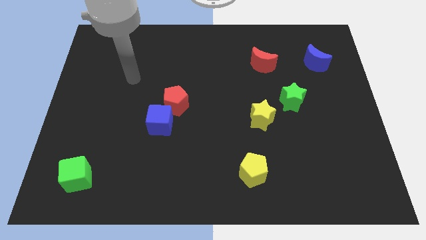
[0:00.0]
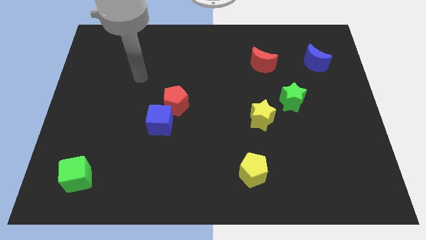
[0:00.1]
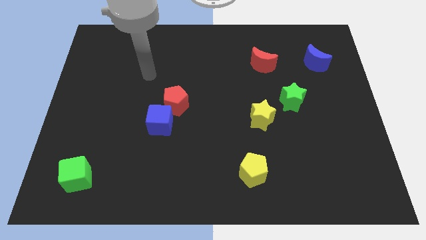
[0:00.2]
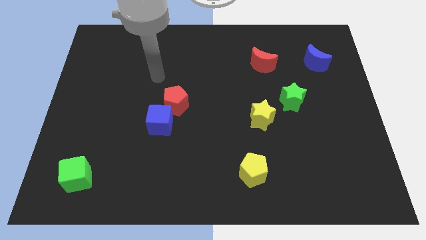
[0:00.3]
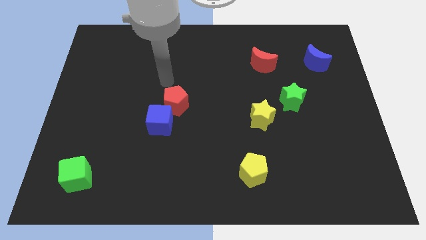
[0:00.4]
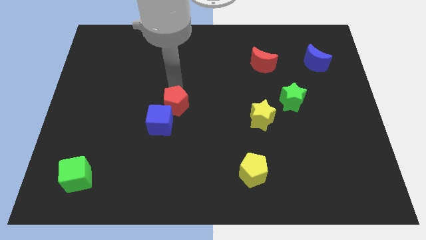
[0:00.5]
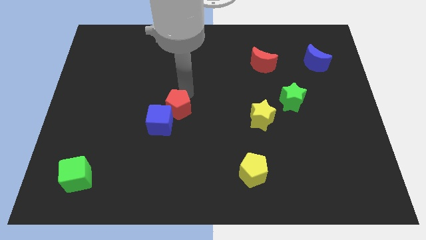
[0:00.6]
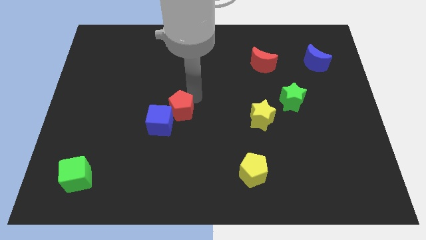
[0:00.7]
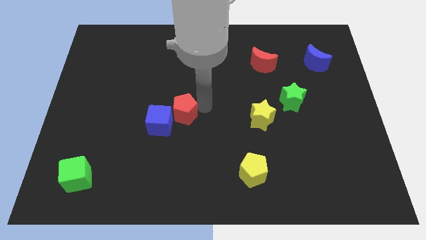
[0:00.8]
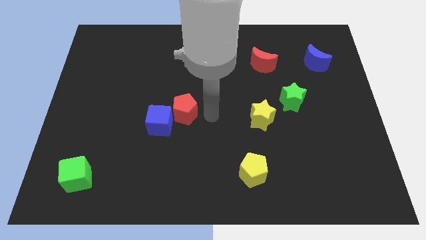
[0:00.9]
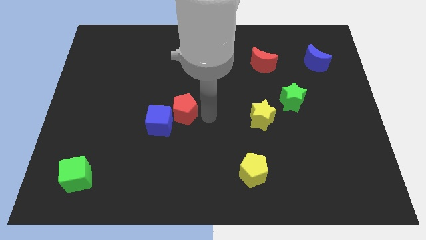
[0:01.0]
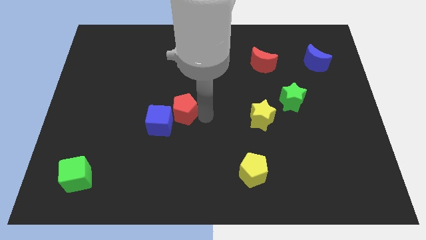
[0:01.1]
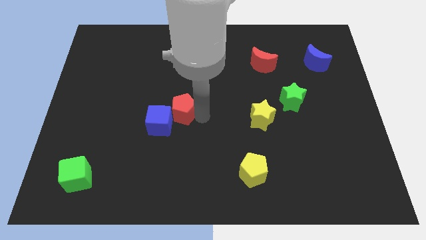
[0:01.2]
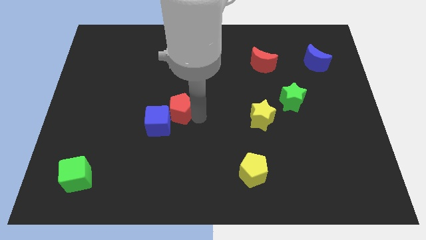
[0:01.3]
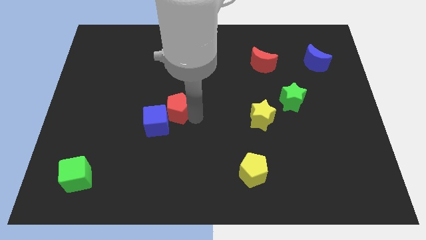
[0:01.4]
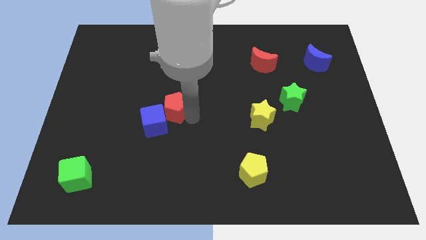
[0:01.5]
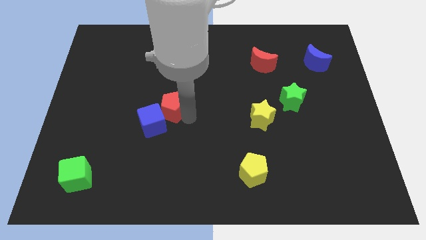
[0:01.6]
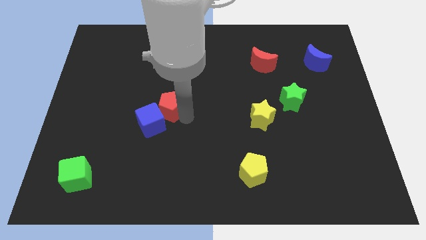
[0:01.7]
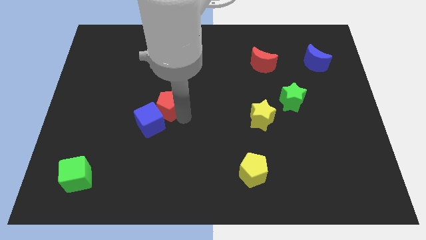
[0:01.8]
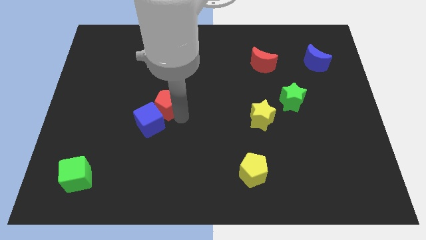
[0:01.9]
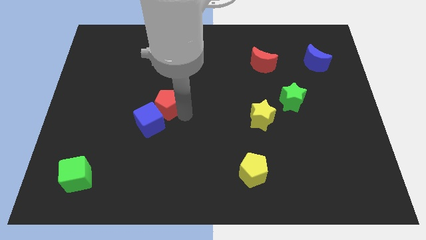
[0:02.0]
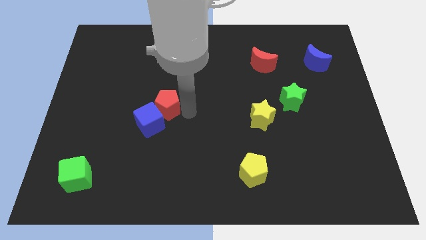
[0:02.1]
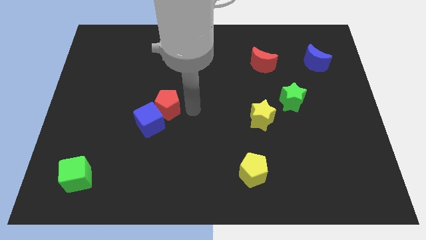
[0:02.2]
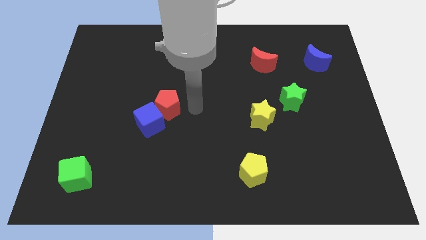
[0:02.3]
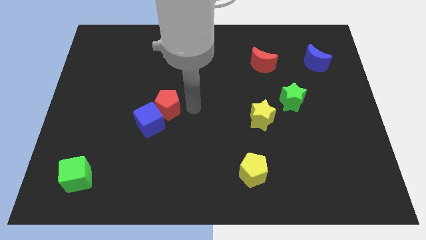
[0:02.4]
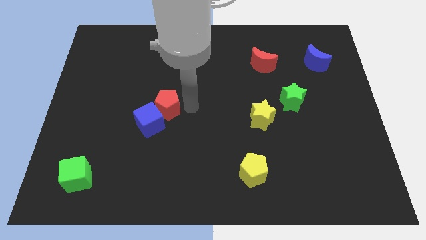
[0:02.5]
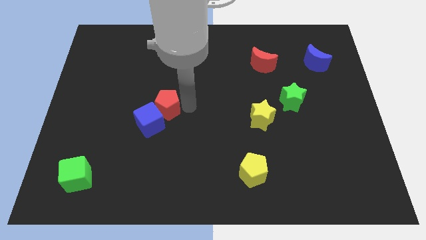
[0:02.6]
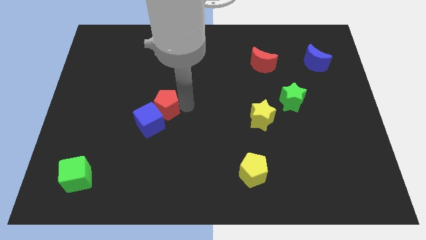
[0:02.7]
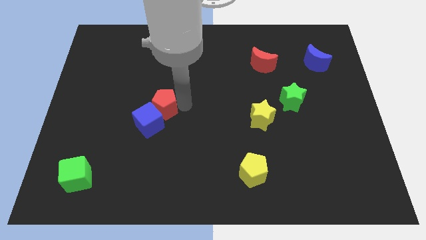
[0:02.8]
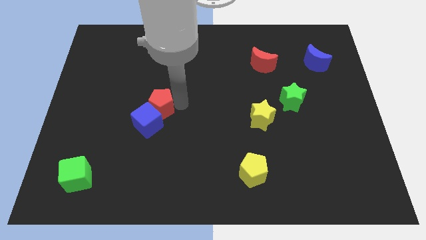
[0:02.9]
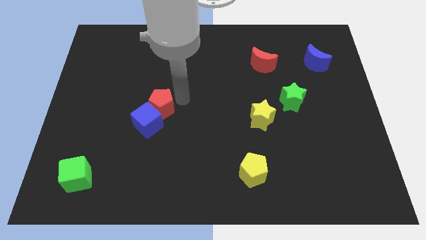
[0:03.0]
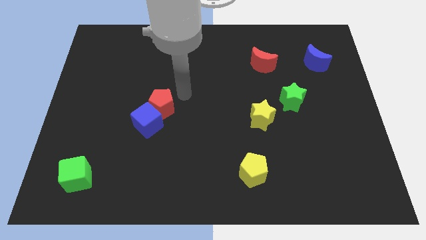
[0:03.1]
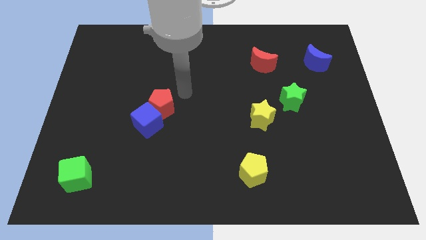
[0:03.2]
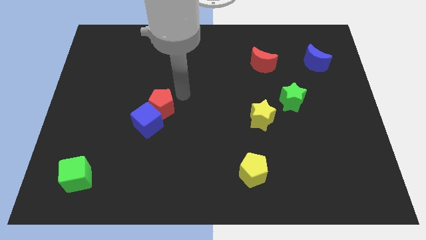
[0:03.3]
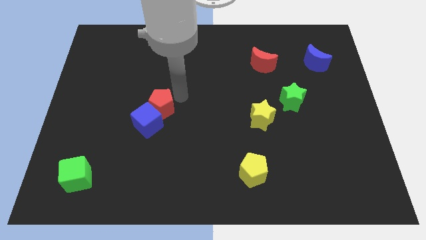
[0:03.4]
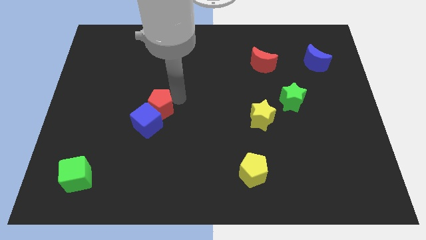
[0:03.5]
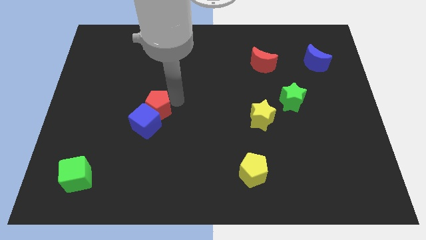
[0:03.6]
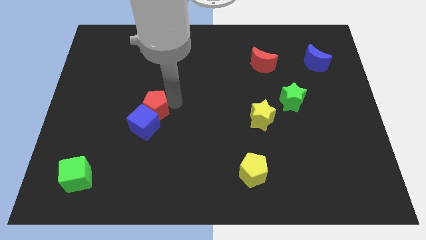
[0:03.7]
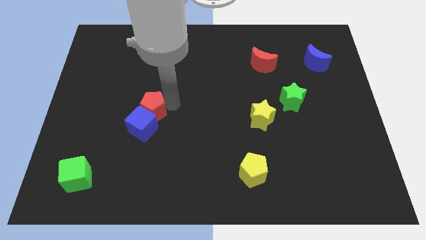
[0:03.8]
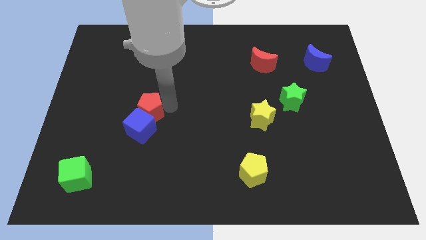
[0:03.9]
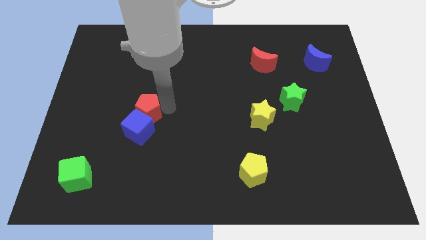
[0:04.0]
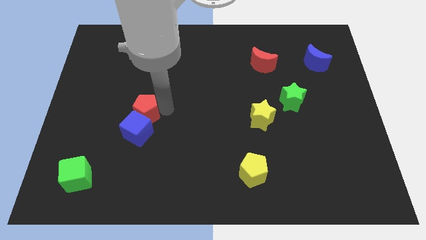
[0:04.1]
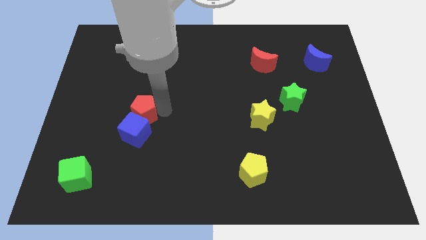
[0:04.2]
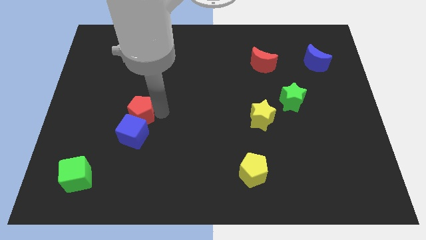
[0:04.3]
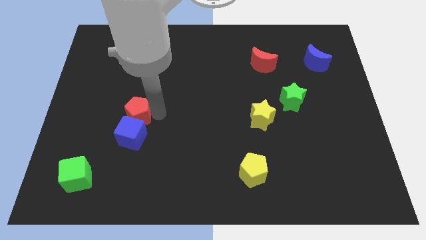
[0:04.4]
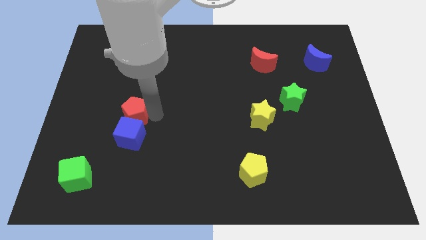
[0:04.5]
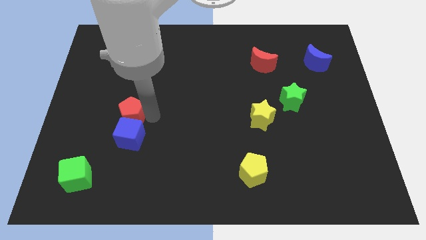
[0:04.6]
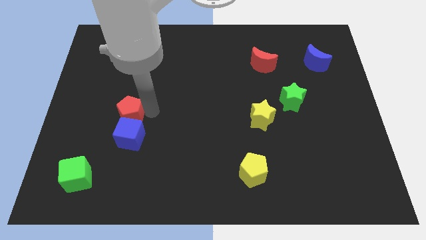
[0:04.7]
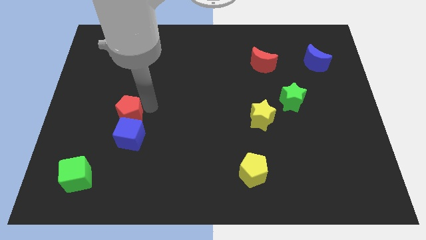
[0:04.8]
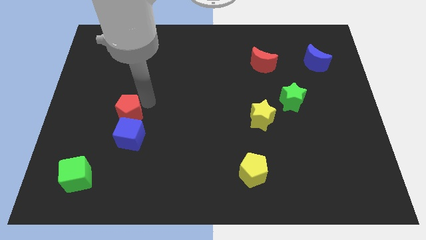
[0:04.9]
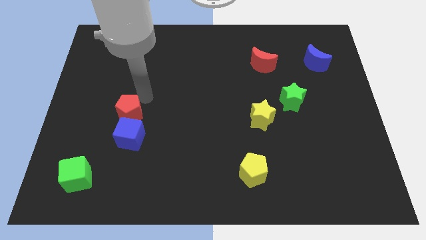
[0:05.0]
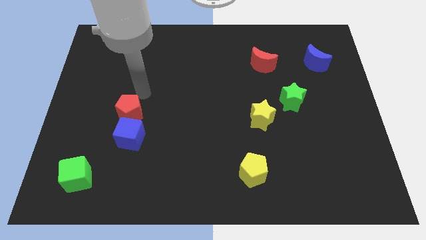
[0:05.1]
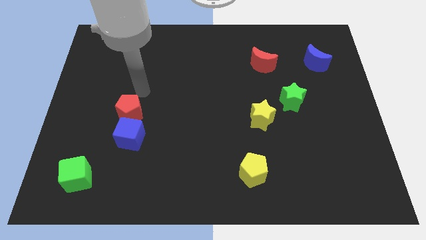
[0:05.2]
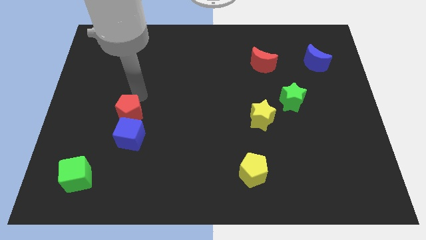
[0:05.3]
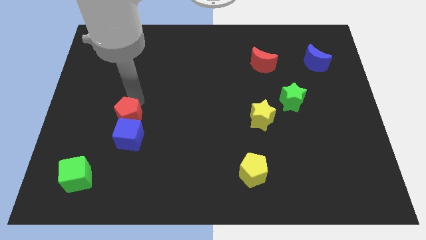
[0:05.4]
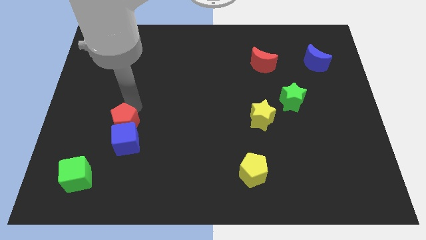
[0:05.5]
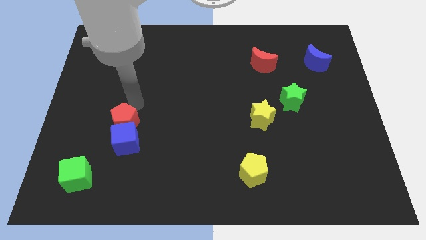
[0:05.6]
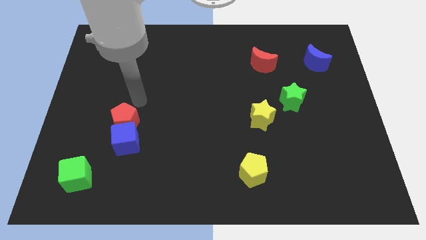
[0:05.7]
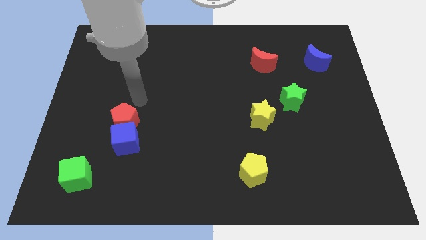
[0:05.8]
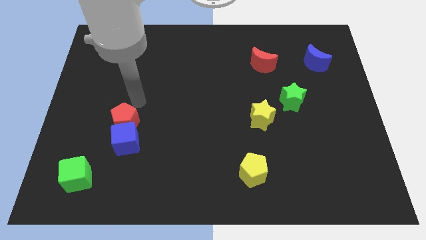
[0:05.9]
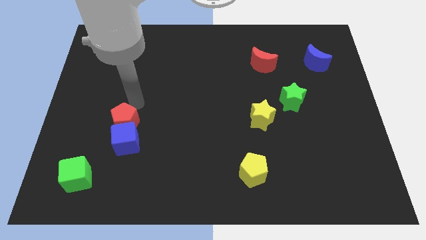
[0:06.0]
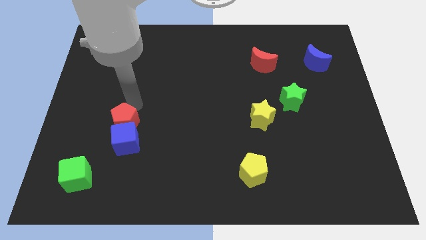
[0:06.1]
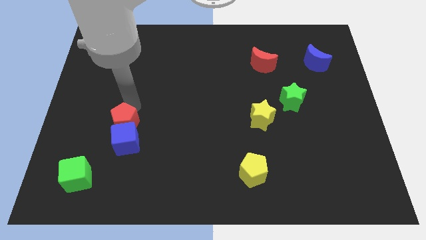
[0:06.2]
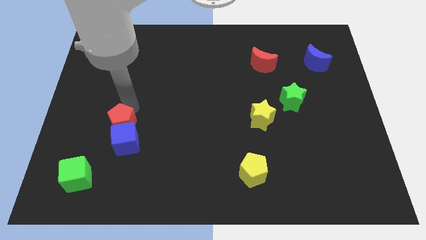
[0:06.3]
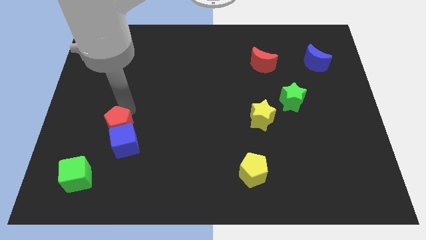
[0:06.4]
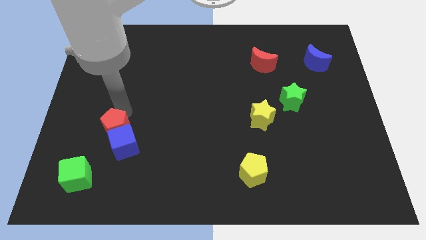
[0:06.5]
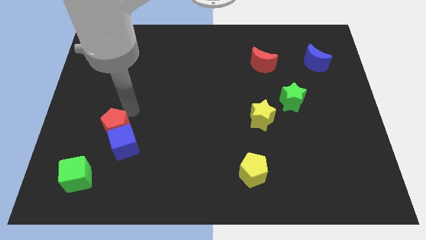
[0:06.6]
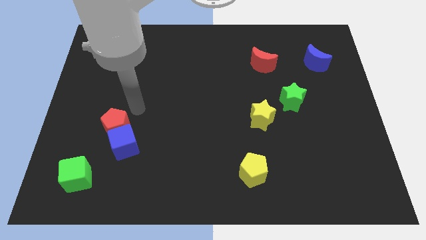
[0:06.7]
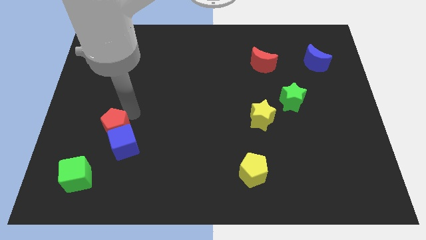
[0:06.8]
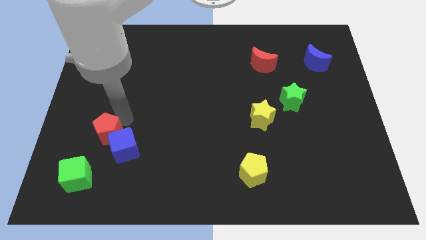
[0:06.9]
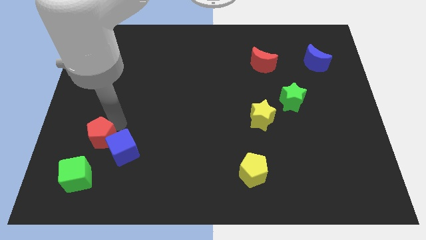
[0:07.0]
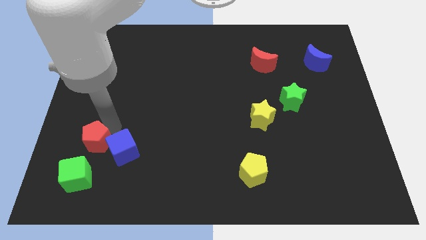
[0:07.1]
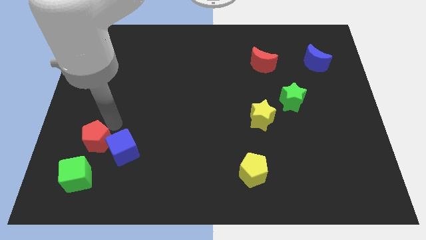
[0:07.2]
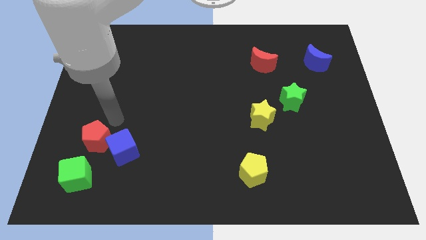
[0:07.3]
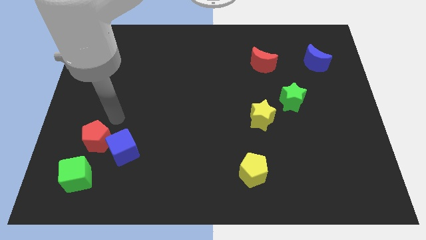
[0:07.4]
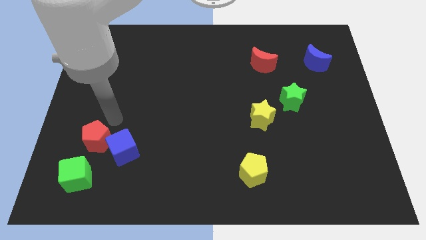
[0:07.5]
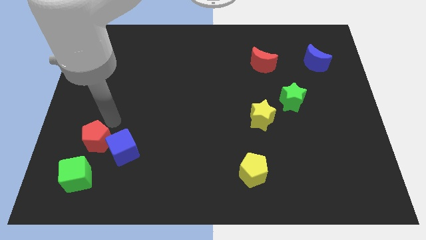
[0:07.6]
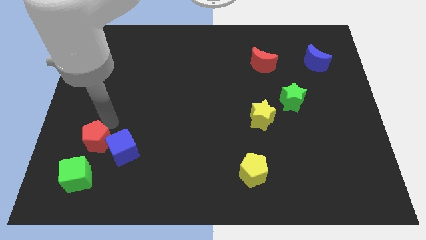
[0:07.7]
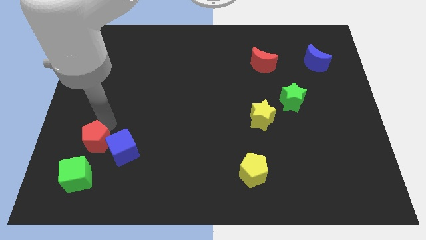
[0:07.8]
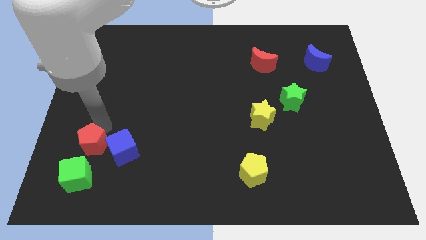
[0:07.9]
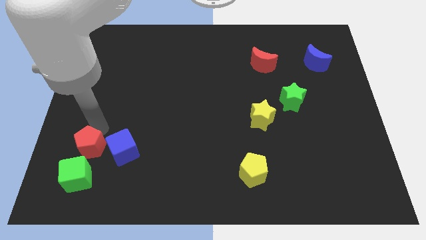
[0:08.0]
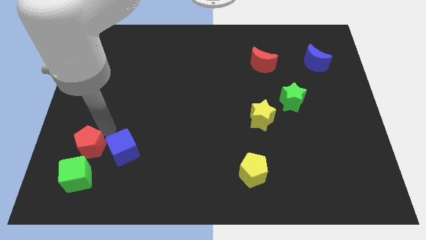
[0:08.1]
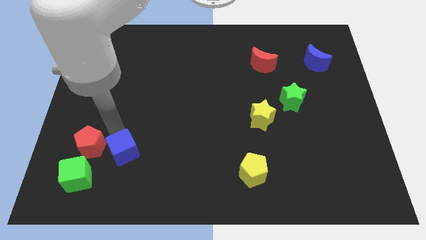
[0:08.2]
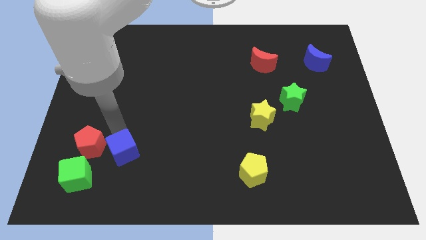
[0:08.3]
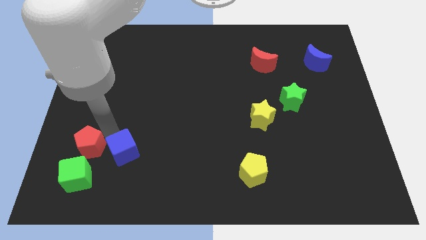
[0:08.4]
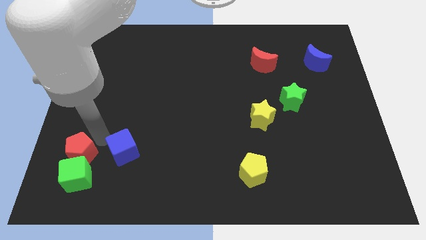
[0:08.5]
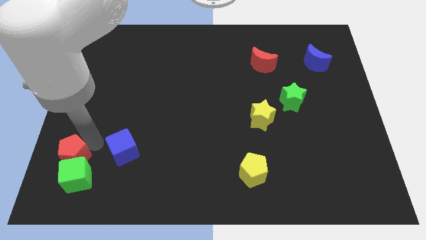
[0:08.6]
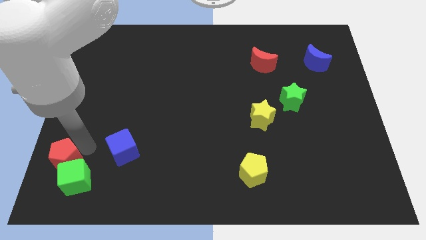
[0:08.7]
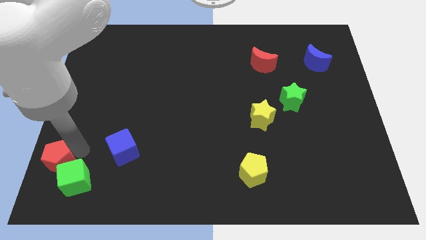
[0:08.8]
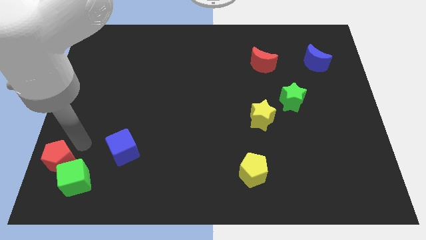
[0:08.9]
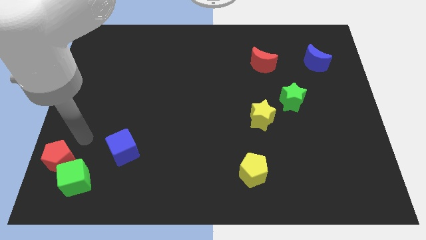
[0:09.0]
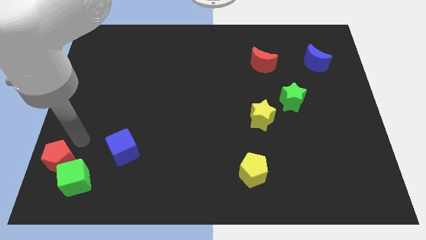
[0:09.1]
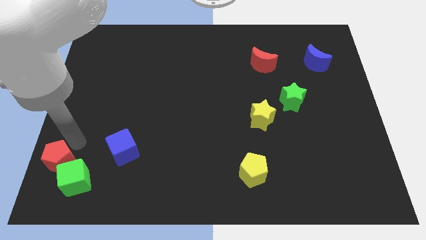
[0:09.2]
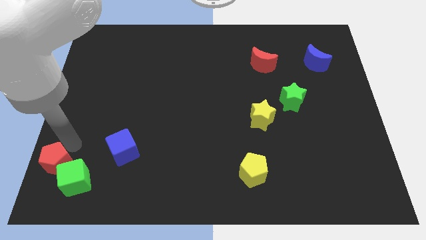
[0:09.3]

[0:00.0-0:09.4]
slide the red pentagon to the lower left corner
